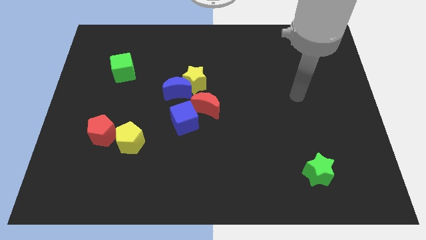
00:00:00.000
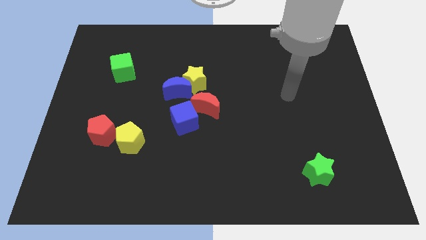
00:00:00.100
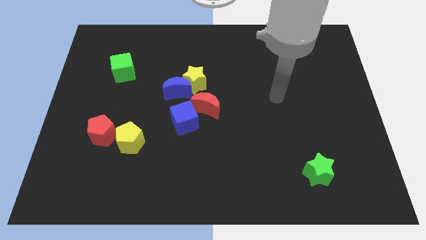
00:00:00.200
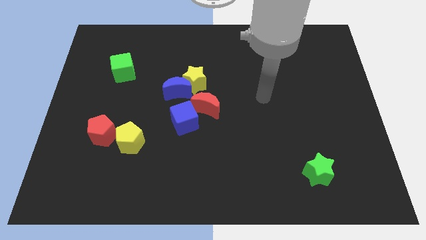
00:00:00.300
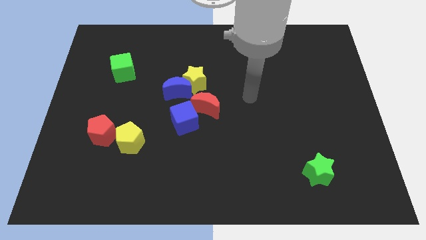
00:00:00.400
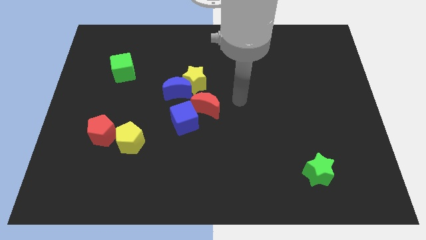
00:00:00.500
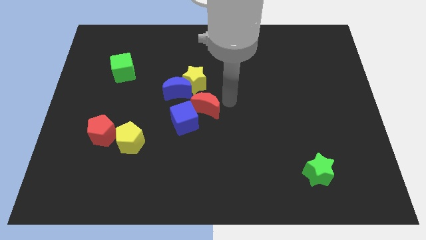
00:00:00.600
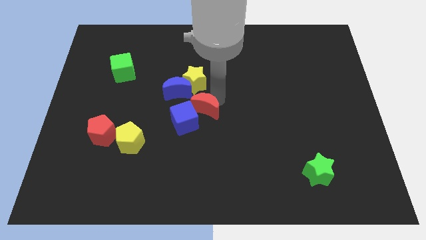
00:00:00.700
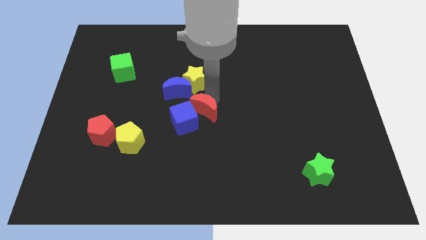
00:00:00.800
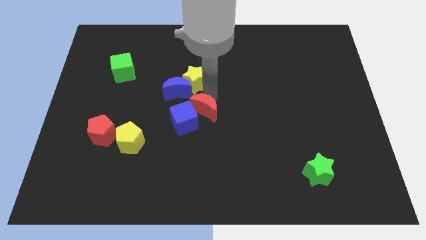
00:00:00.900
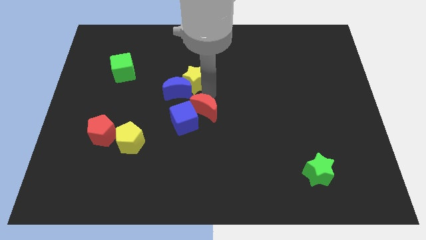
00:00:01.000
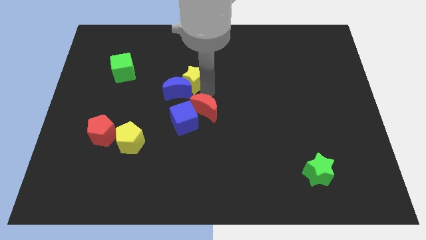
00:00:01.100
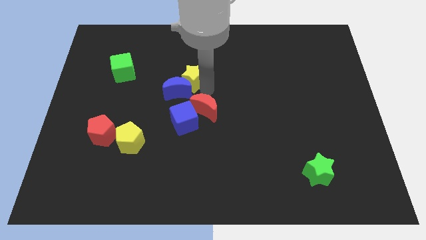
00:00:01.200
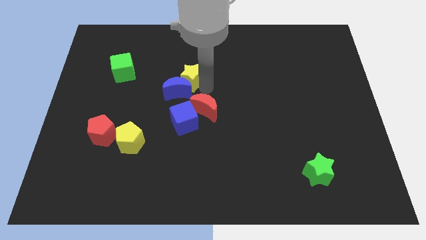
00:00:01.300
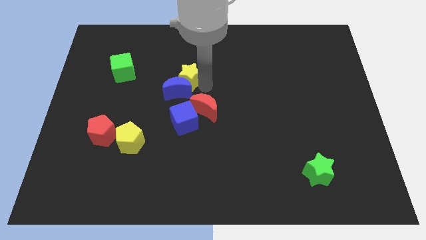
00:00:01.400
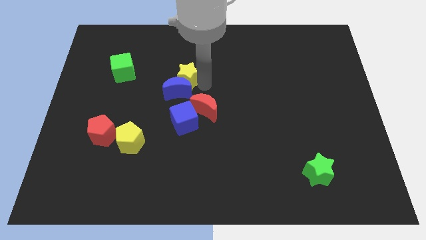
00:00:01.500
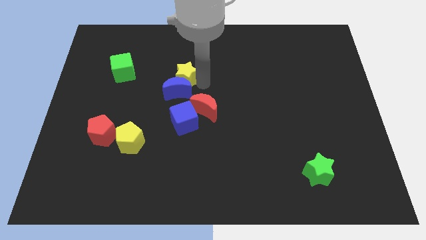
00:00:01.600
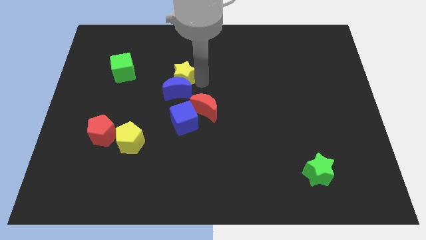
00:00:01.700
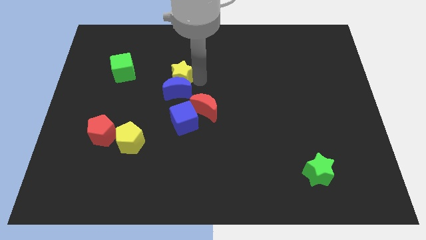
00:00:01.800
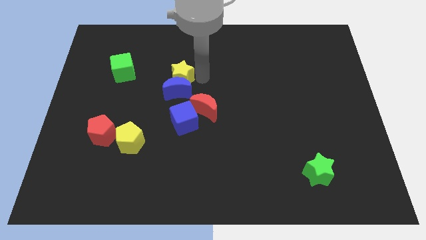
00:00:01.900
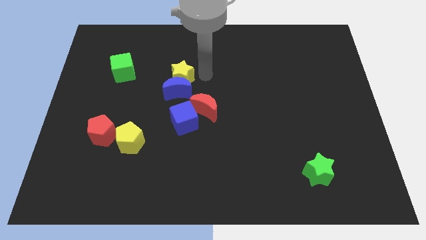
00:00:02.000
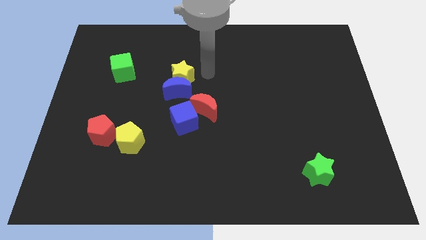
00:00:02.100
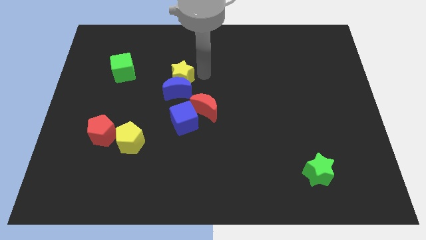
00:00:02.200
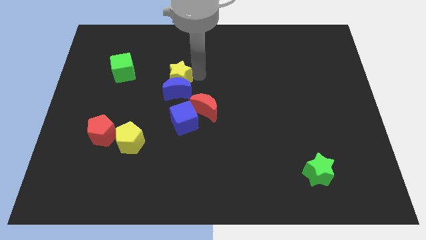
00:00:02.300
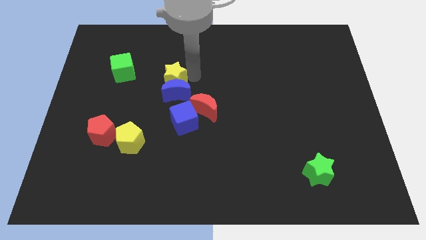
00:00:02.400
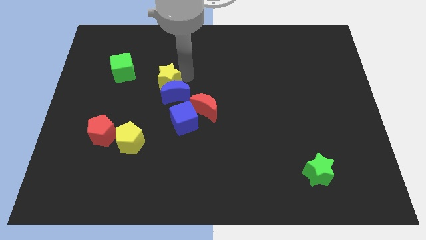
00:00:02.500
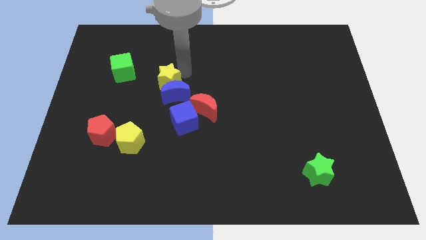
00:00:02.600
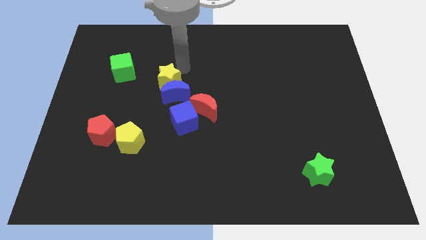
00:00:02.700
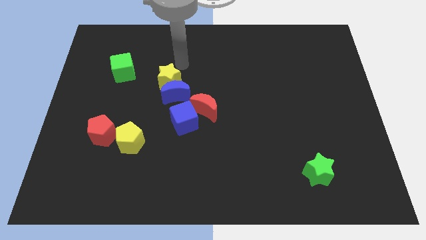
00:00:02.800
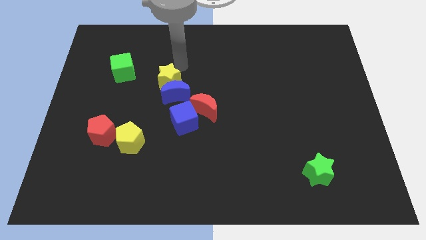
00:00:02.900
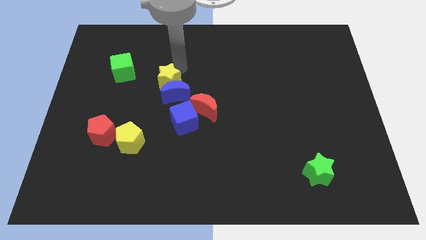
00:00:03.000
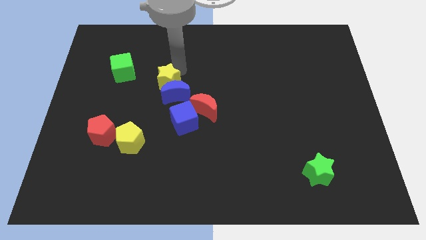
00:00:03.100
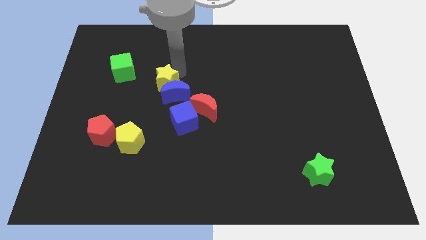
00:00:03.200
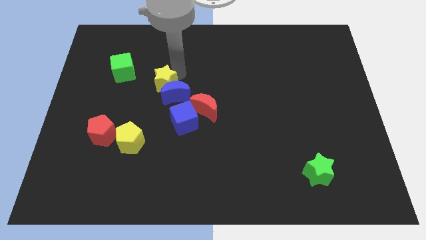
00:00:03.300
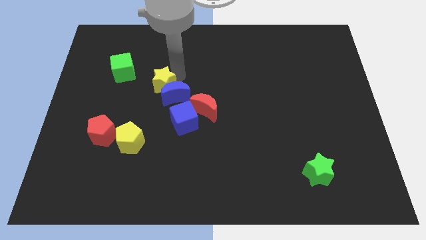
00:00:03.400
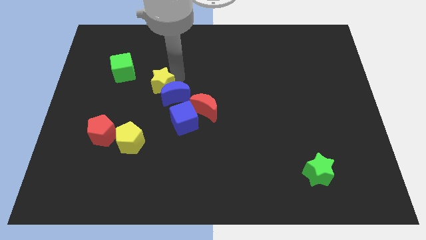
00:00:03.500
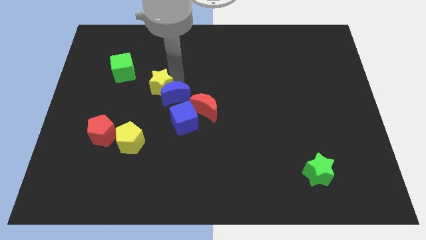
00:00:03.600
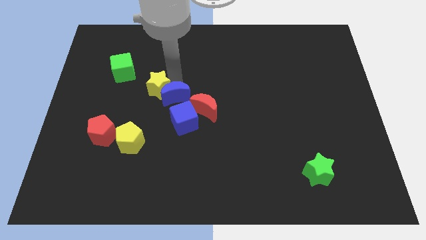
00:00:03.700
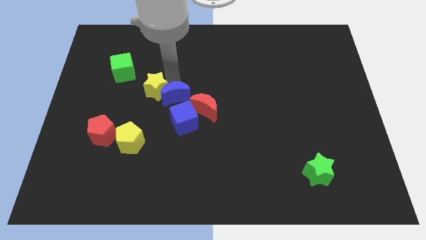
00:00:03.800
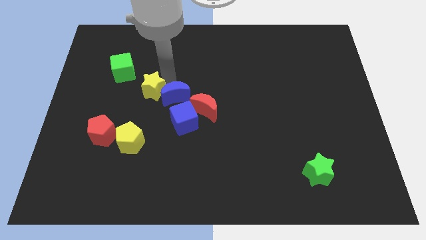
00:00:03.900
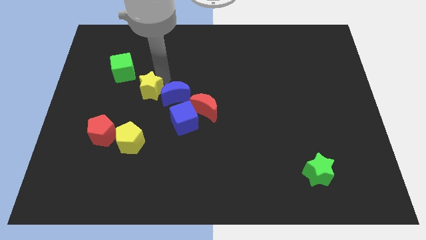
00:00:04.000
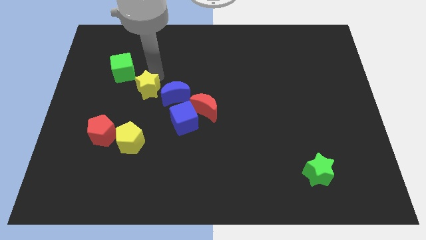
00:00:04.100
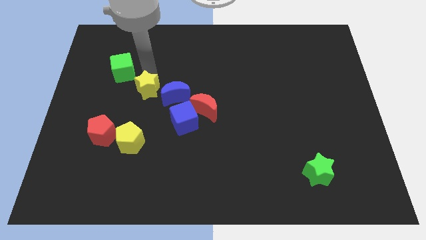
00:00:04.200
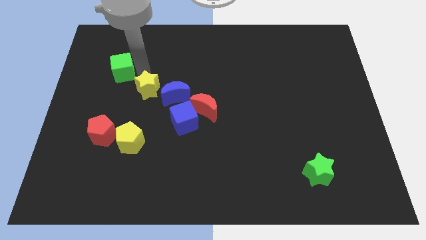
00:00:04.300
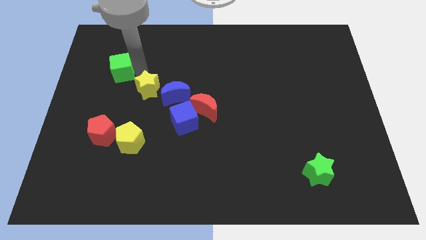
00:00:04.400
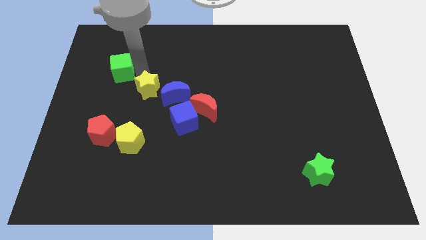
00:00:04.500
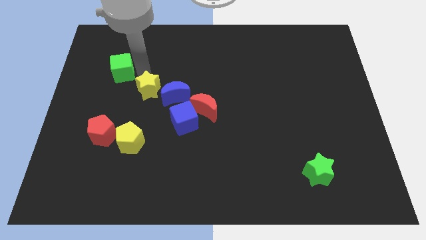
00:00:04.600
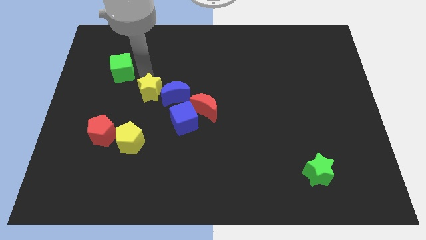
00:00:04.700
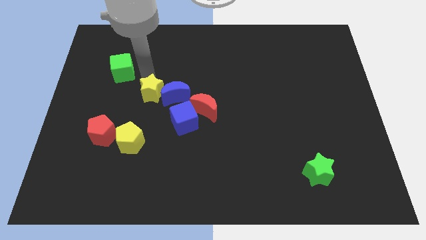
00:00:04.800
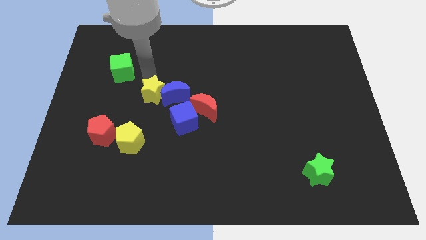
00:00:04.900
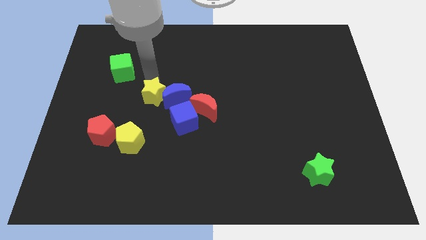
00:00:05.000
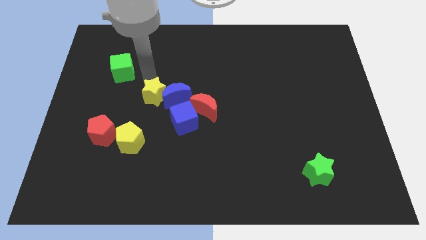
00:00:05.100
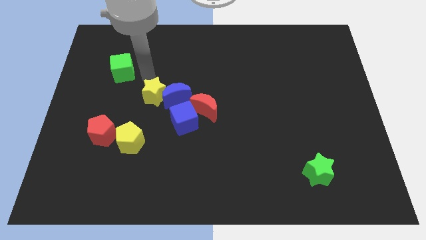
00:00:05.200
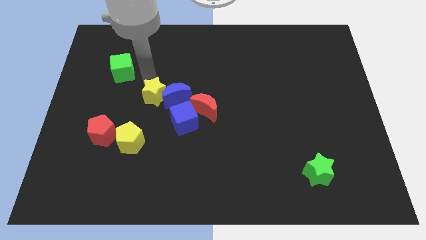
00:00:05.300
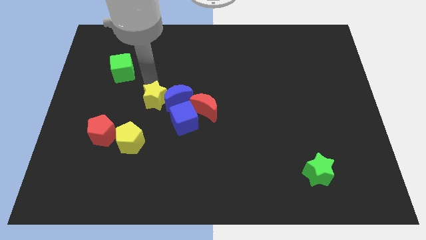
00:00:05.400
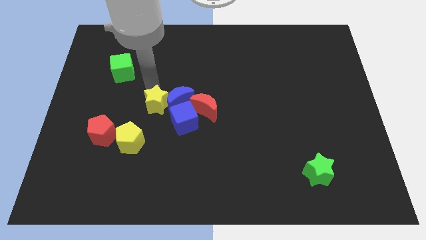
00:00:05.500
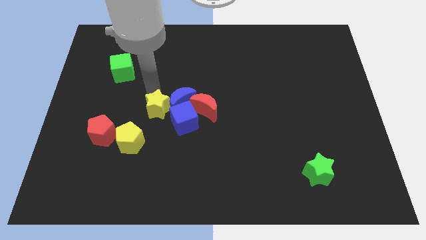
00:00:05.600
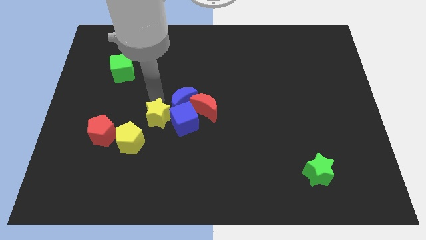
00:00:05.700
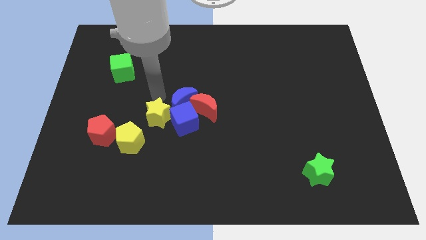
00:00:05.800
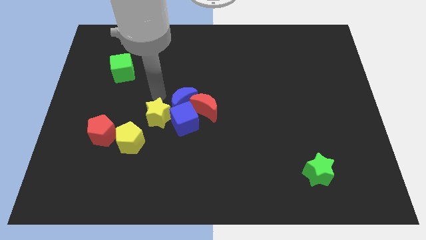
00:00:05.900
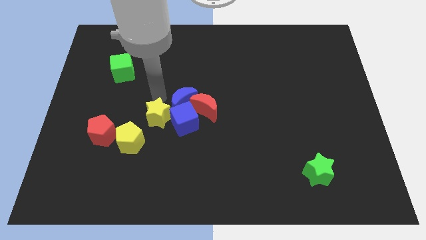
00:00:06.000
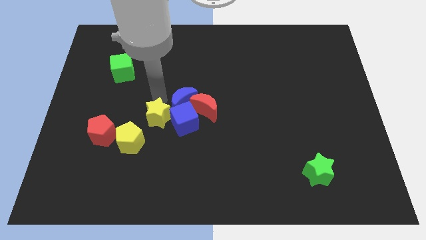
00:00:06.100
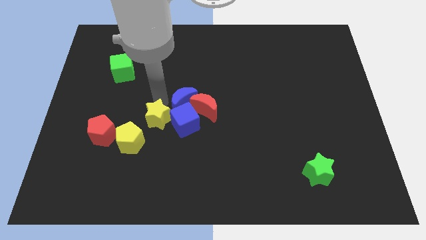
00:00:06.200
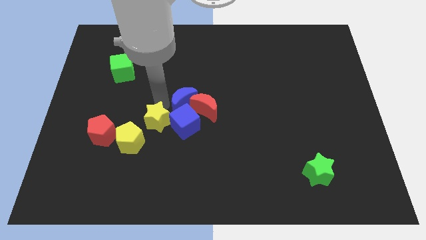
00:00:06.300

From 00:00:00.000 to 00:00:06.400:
slide the yellow star to the bottom left side of the blue cube
